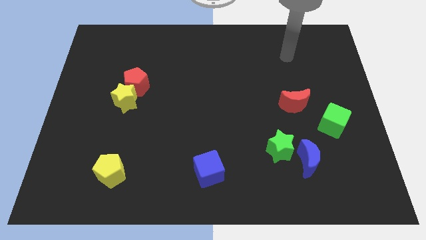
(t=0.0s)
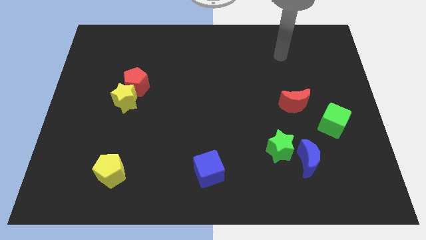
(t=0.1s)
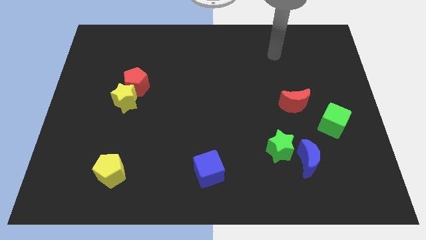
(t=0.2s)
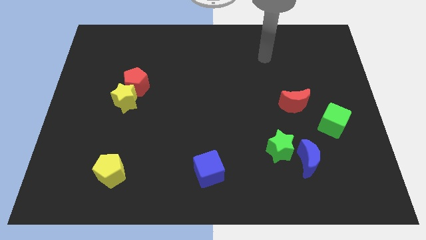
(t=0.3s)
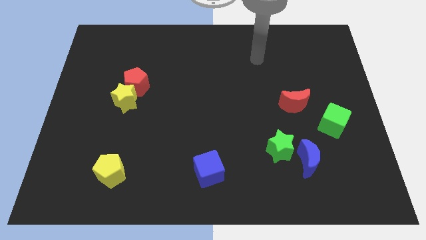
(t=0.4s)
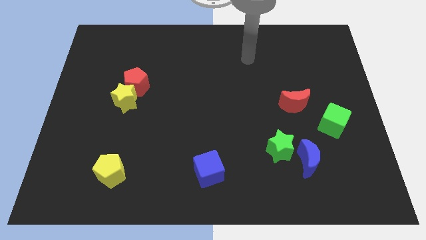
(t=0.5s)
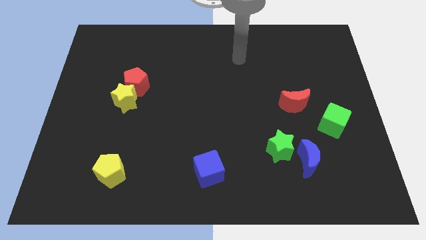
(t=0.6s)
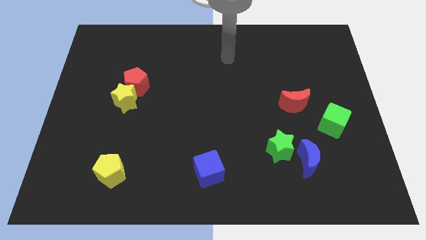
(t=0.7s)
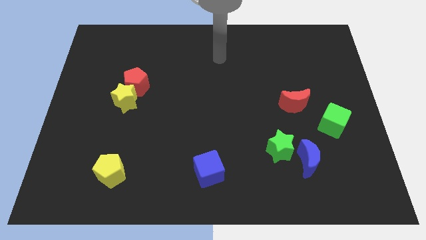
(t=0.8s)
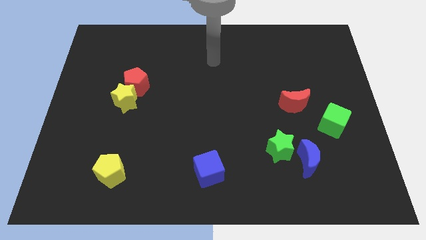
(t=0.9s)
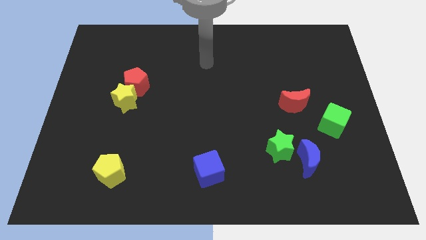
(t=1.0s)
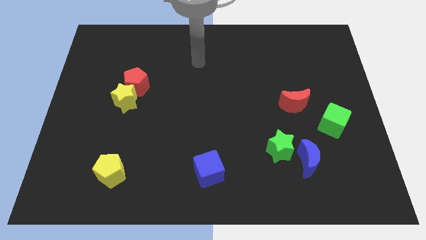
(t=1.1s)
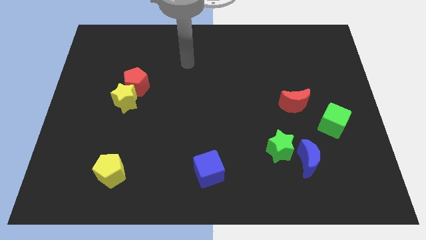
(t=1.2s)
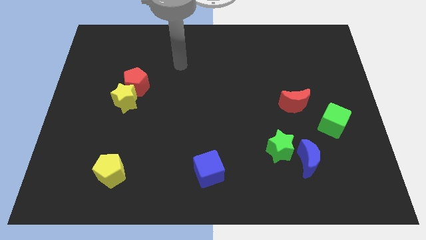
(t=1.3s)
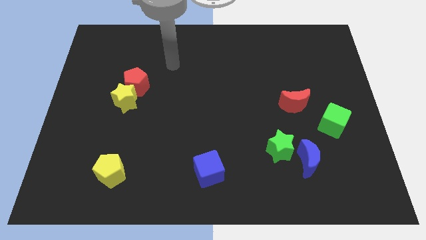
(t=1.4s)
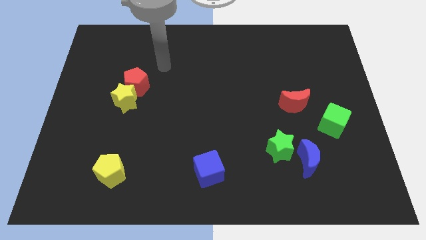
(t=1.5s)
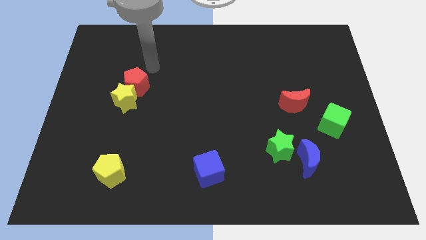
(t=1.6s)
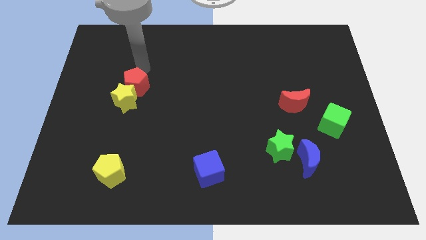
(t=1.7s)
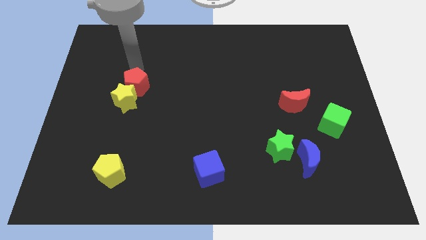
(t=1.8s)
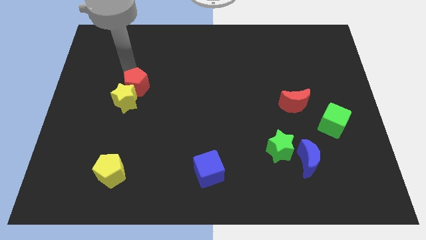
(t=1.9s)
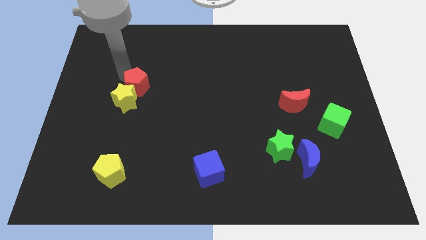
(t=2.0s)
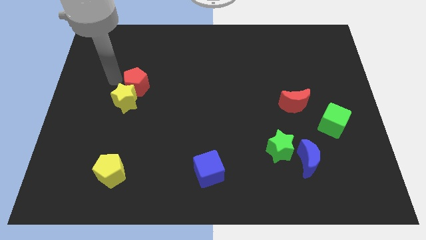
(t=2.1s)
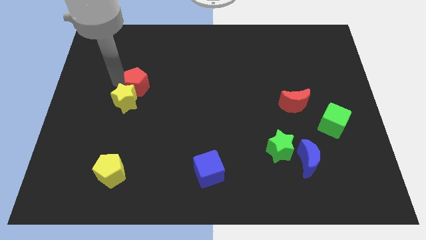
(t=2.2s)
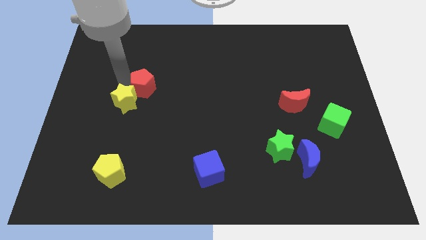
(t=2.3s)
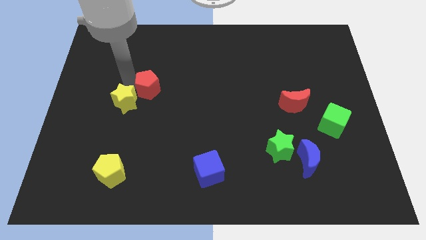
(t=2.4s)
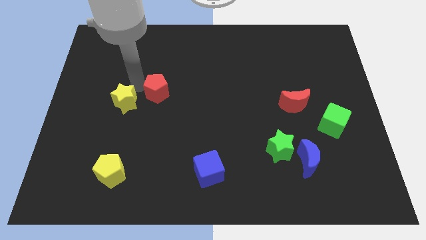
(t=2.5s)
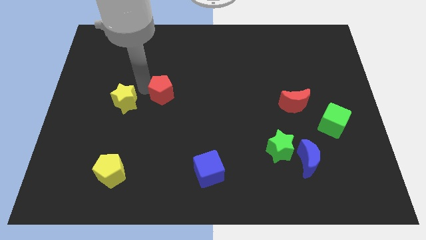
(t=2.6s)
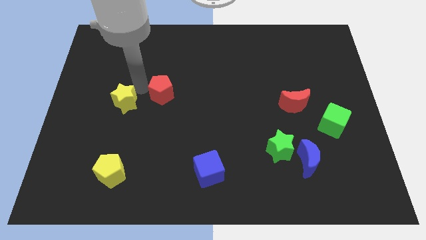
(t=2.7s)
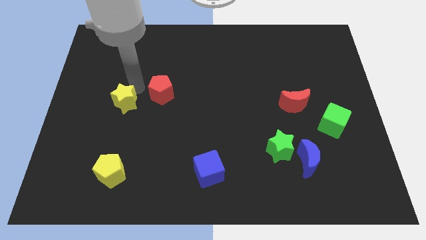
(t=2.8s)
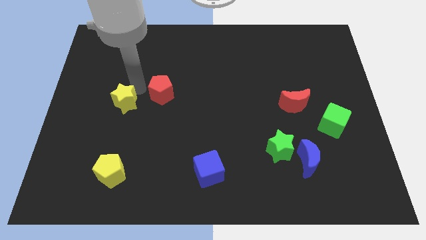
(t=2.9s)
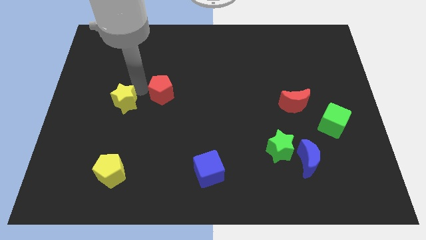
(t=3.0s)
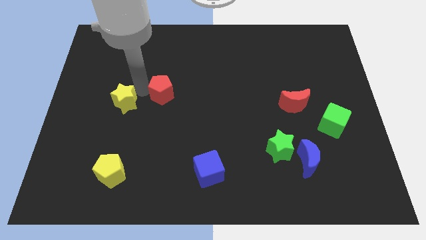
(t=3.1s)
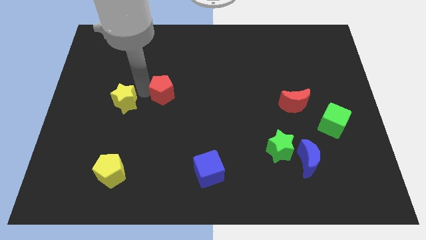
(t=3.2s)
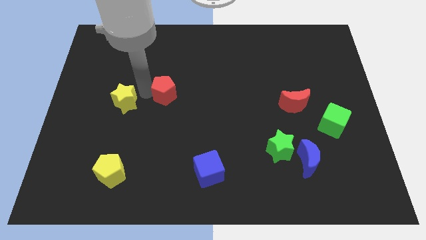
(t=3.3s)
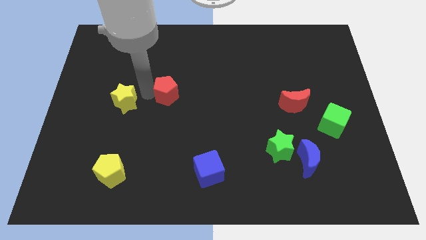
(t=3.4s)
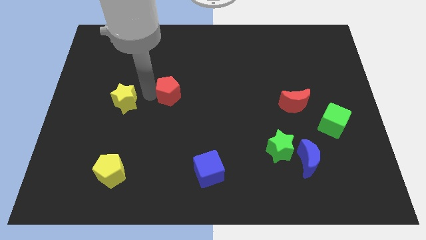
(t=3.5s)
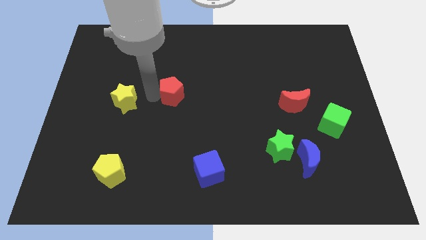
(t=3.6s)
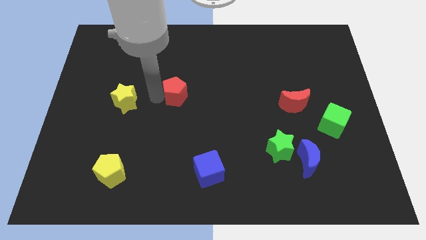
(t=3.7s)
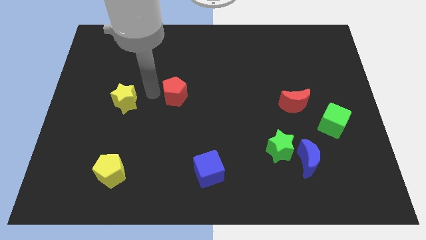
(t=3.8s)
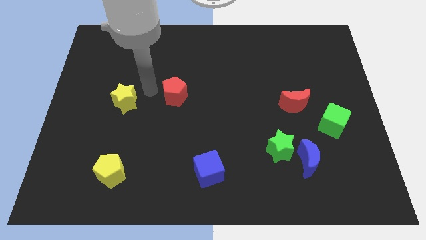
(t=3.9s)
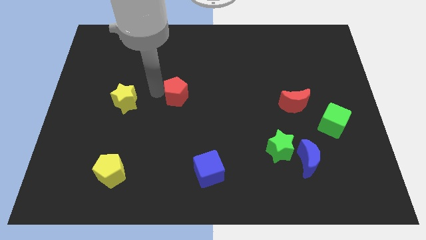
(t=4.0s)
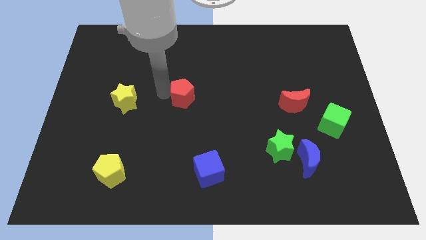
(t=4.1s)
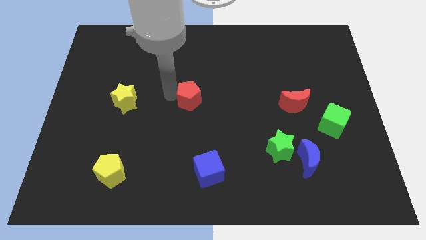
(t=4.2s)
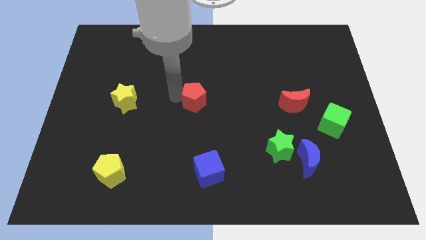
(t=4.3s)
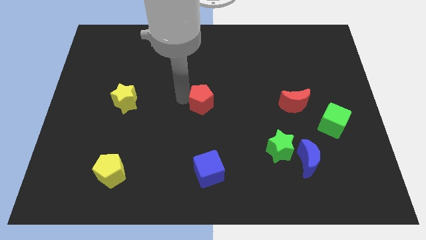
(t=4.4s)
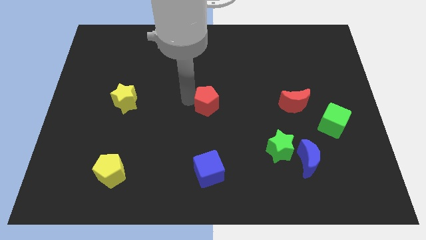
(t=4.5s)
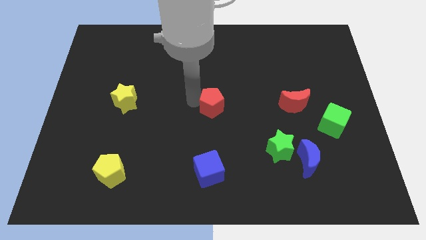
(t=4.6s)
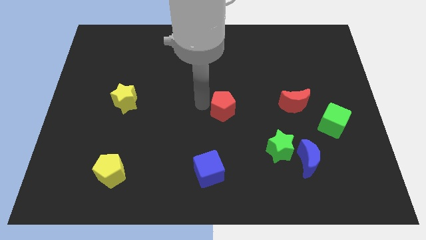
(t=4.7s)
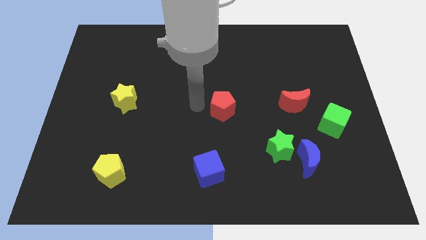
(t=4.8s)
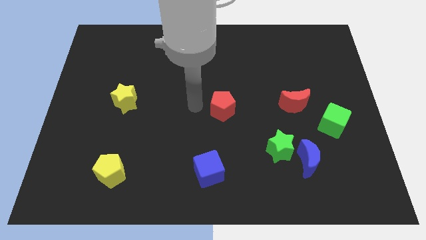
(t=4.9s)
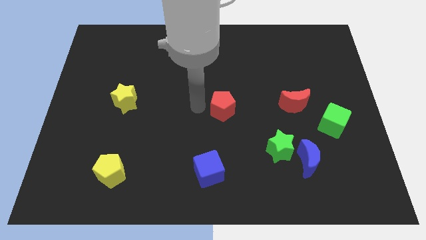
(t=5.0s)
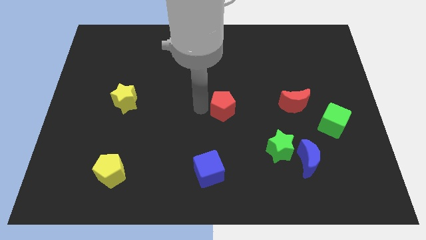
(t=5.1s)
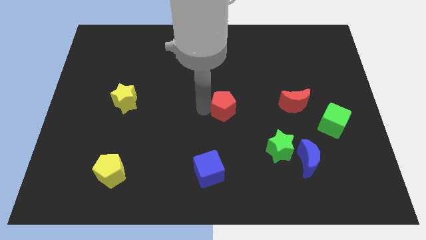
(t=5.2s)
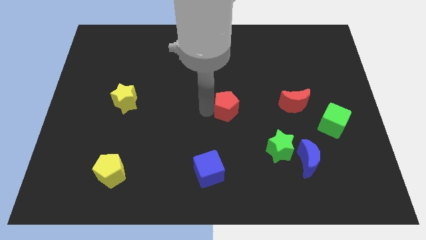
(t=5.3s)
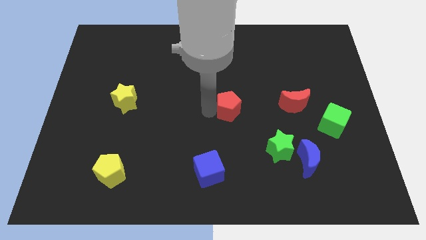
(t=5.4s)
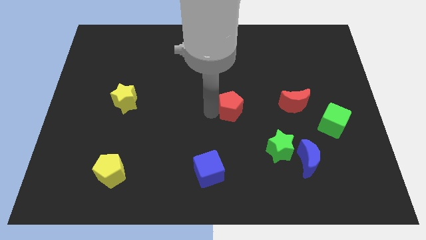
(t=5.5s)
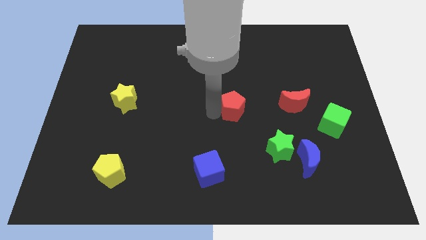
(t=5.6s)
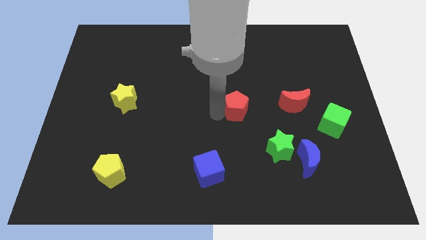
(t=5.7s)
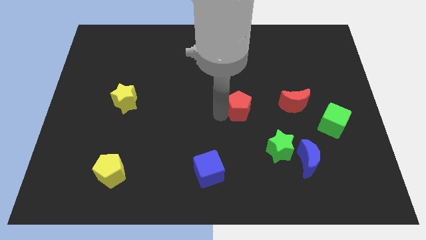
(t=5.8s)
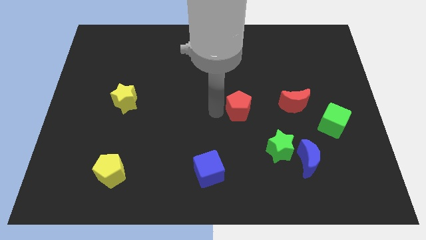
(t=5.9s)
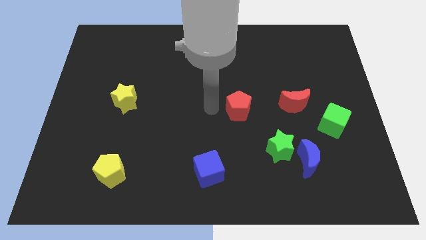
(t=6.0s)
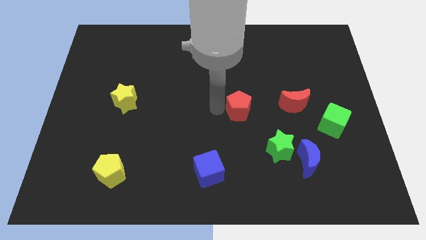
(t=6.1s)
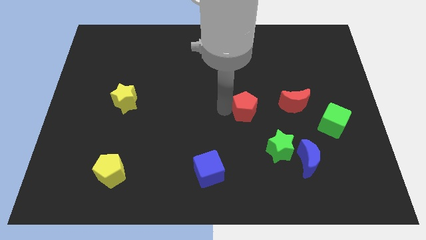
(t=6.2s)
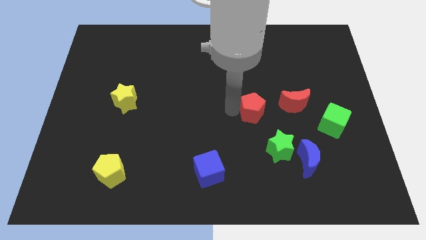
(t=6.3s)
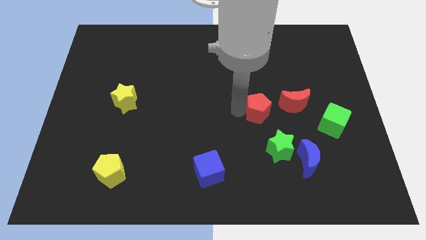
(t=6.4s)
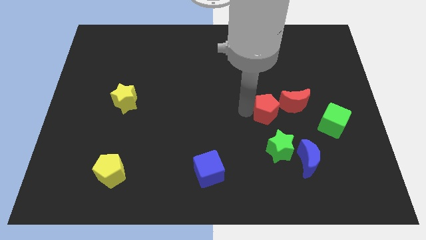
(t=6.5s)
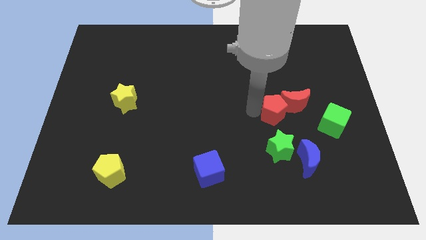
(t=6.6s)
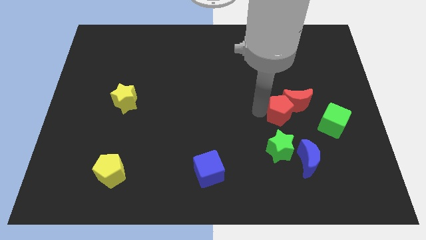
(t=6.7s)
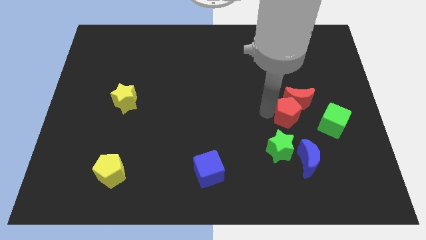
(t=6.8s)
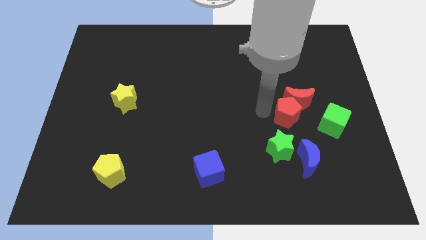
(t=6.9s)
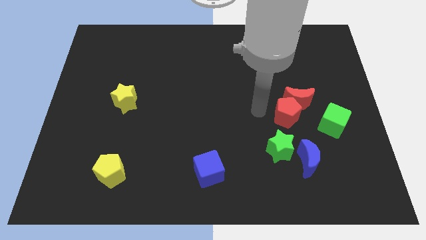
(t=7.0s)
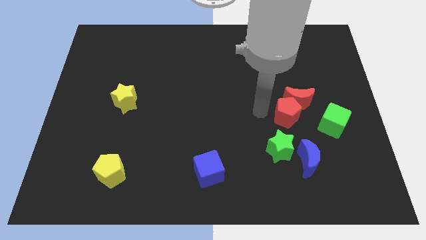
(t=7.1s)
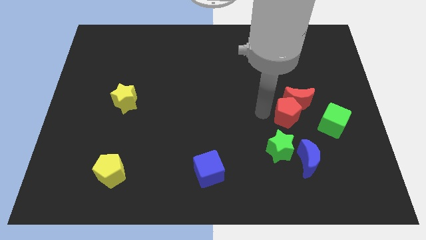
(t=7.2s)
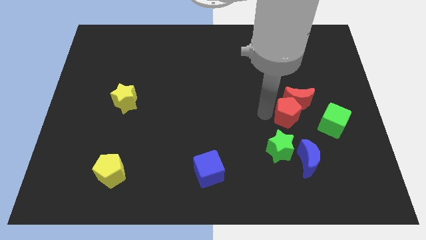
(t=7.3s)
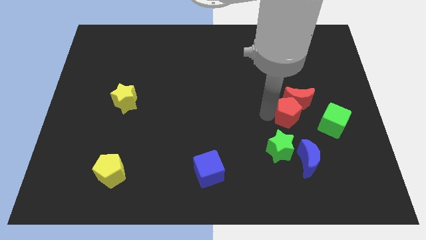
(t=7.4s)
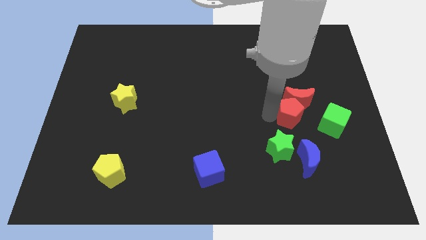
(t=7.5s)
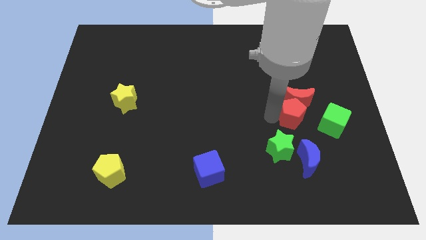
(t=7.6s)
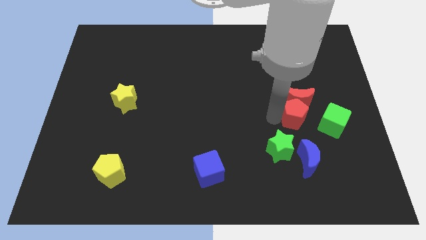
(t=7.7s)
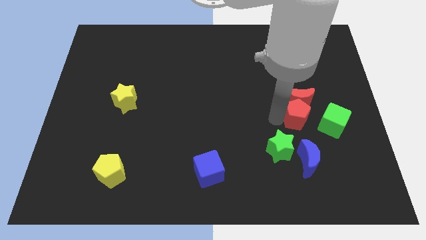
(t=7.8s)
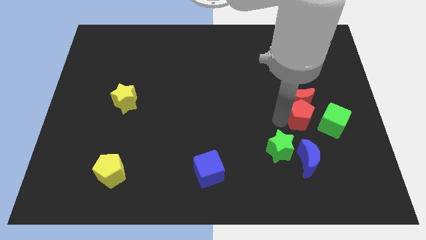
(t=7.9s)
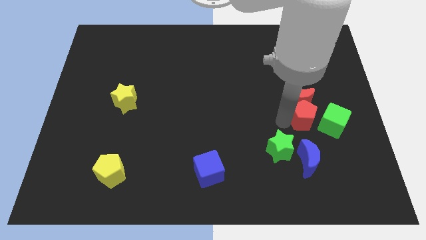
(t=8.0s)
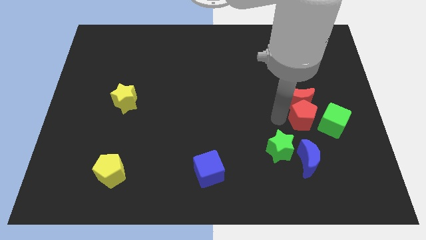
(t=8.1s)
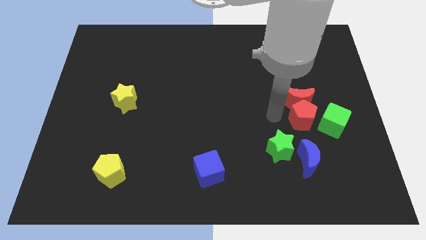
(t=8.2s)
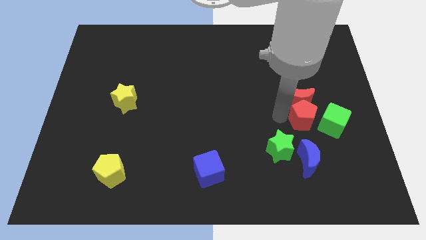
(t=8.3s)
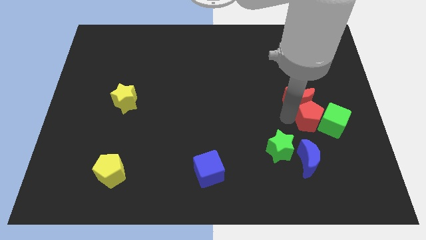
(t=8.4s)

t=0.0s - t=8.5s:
put the red pentagon next to the green cube
